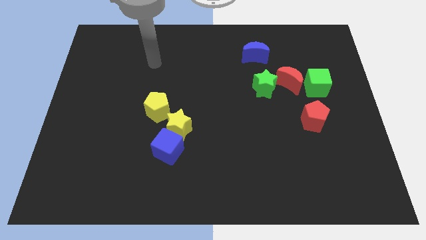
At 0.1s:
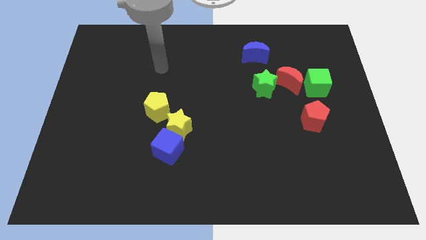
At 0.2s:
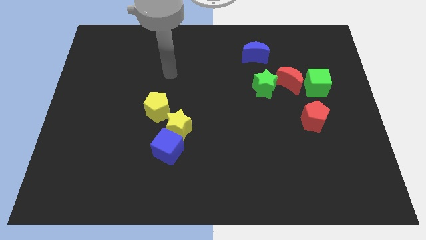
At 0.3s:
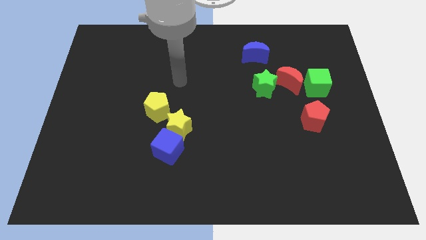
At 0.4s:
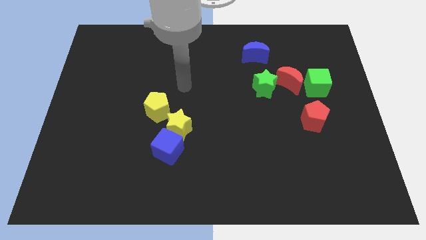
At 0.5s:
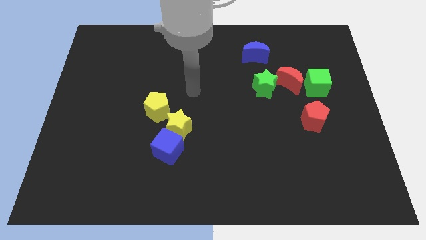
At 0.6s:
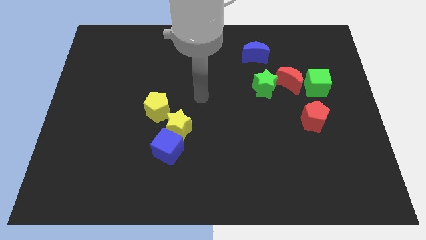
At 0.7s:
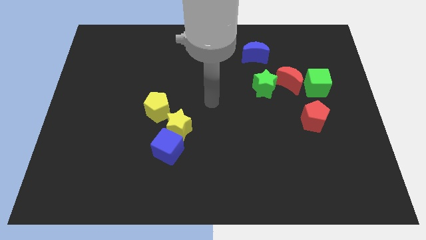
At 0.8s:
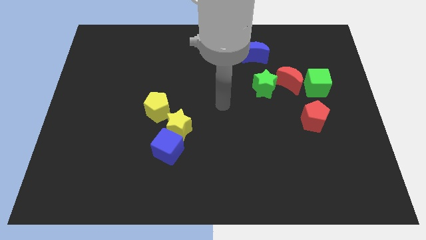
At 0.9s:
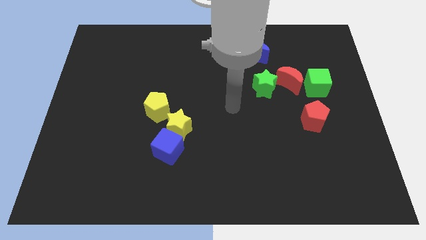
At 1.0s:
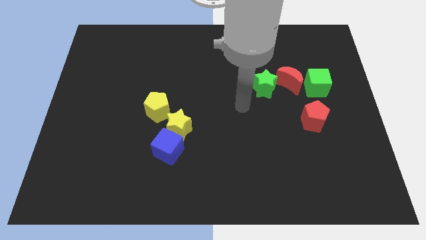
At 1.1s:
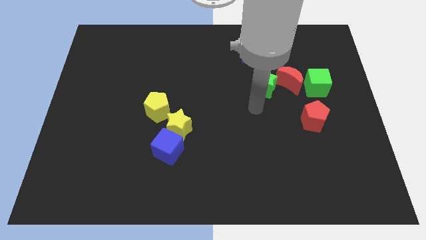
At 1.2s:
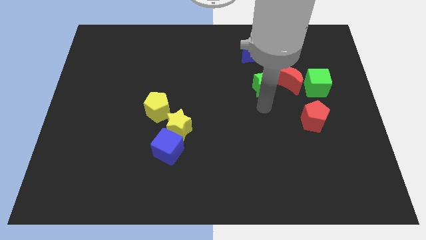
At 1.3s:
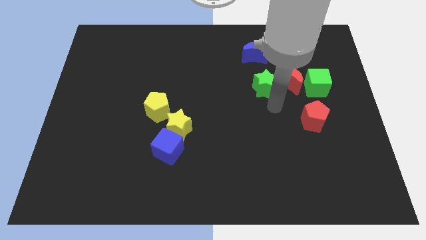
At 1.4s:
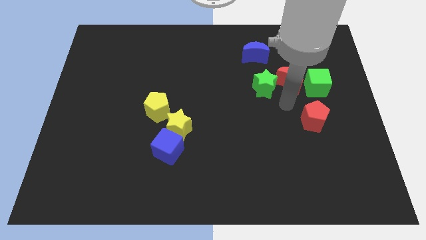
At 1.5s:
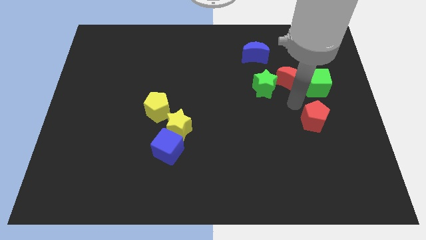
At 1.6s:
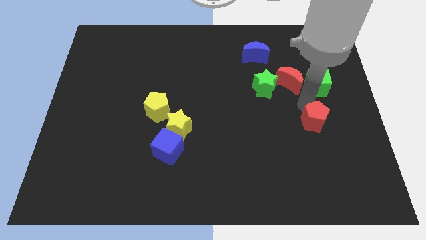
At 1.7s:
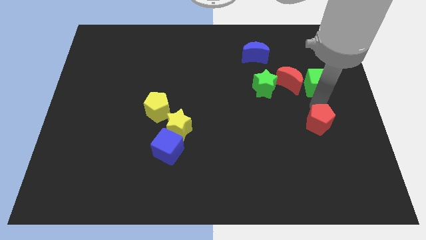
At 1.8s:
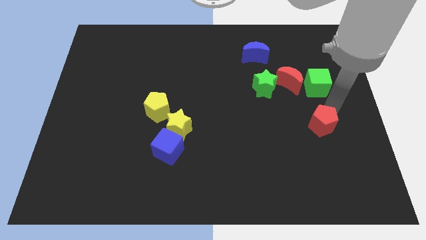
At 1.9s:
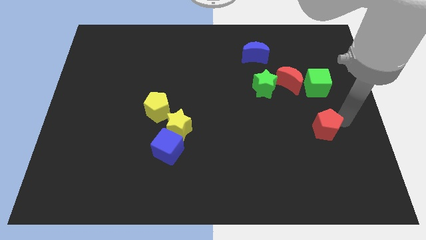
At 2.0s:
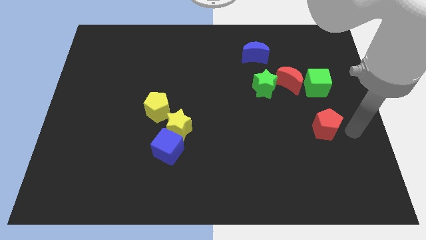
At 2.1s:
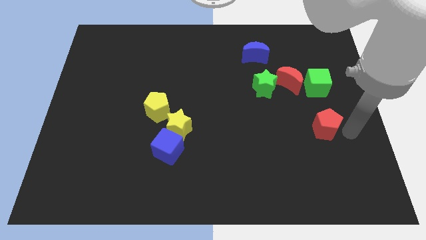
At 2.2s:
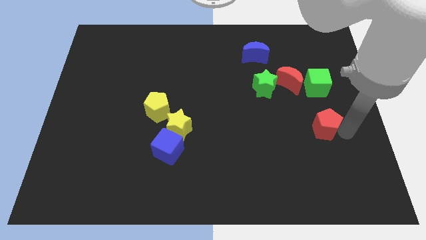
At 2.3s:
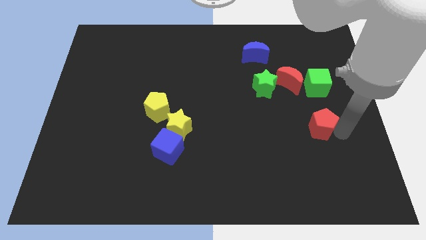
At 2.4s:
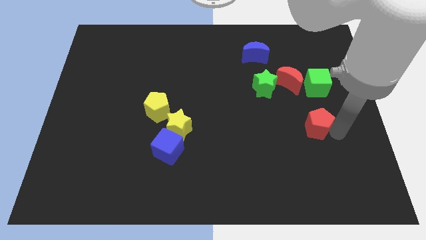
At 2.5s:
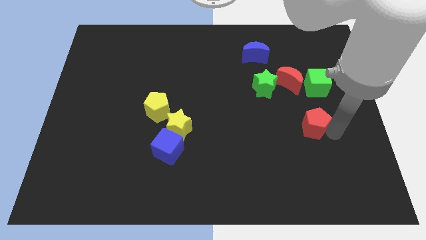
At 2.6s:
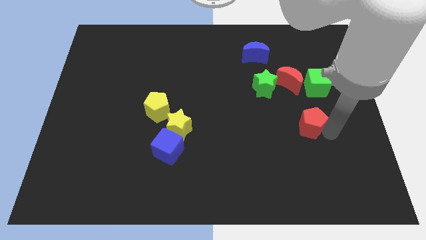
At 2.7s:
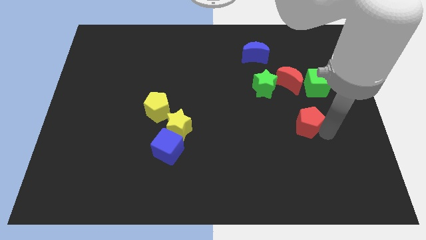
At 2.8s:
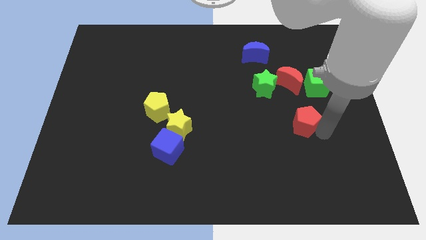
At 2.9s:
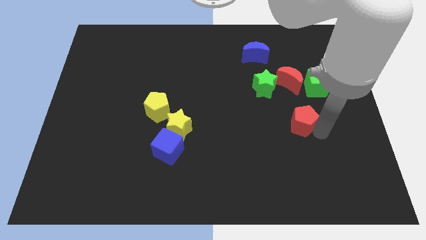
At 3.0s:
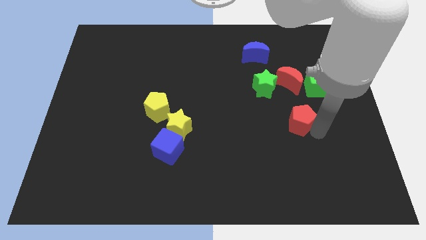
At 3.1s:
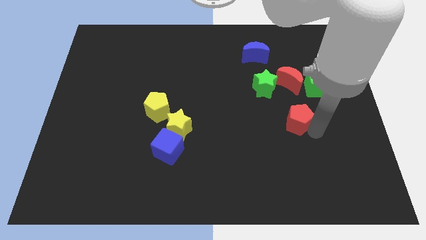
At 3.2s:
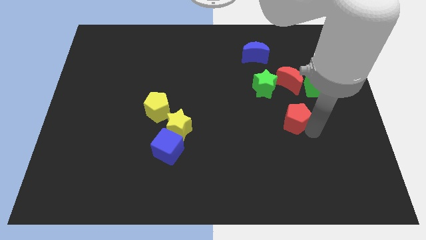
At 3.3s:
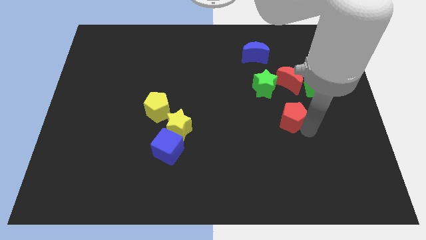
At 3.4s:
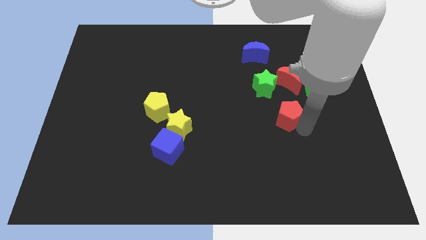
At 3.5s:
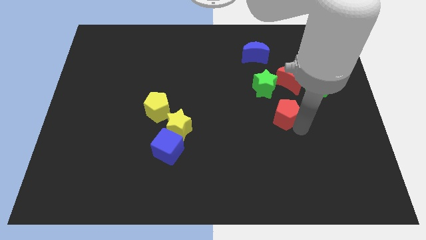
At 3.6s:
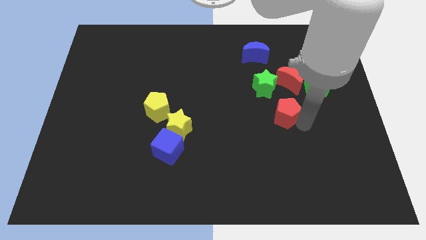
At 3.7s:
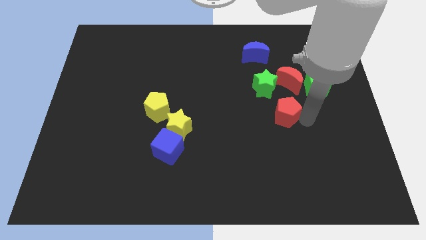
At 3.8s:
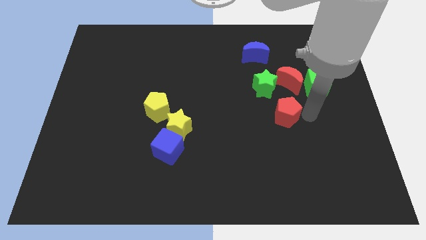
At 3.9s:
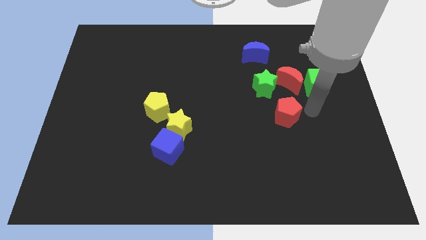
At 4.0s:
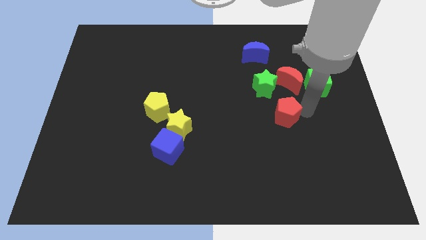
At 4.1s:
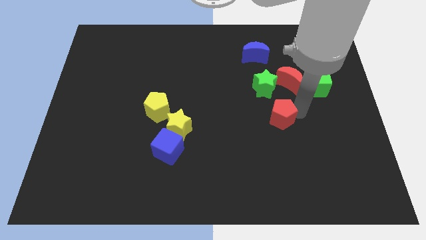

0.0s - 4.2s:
slightly push the red pentagon to the left

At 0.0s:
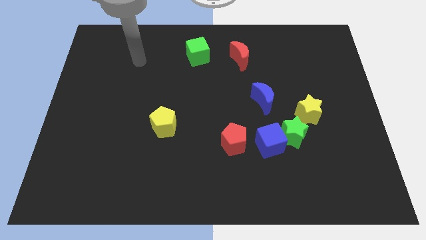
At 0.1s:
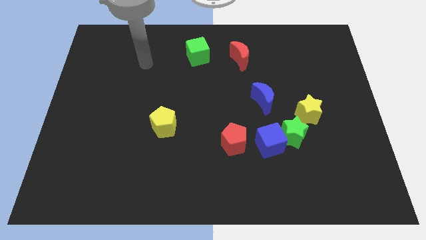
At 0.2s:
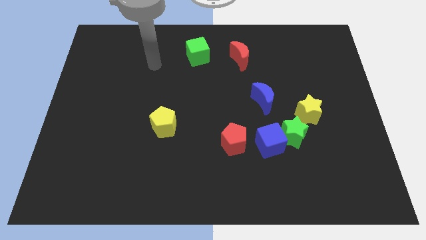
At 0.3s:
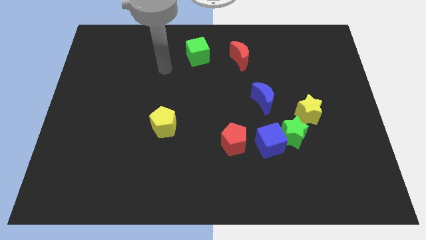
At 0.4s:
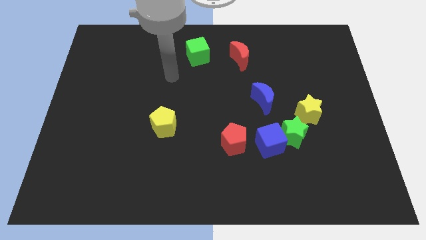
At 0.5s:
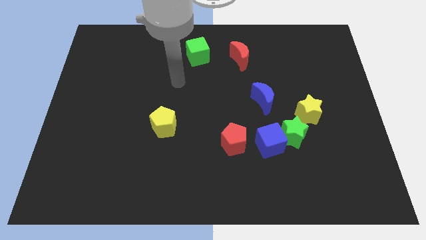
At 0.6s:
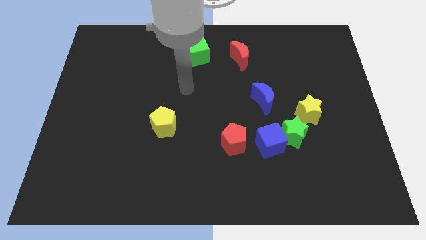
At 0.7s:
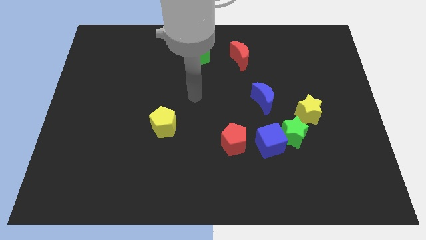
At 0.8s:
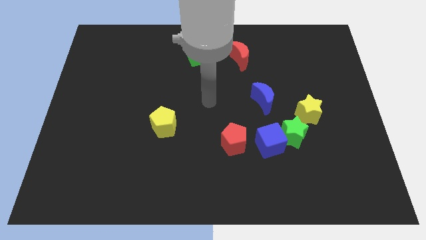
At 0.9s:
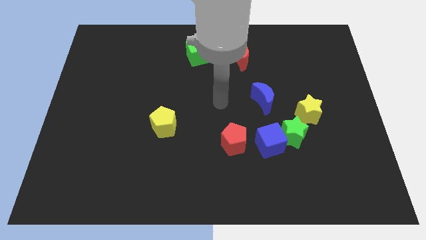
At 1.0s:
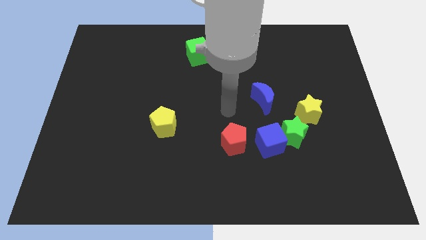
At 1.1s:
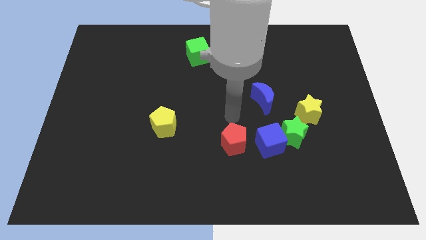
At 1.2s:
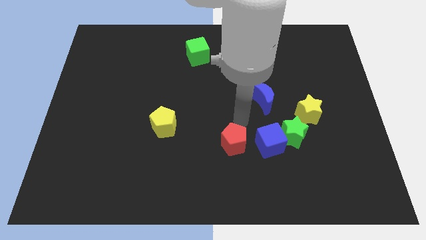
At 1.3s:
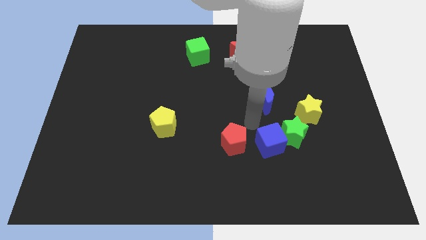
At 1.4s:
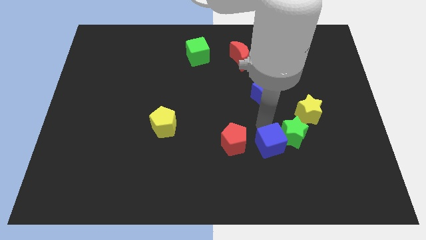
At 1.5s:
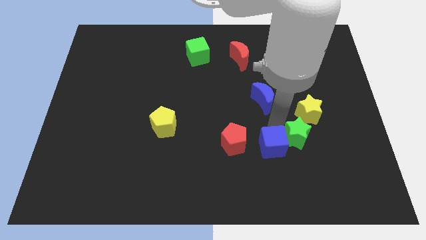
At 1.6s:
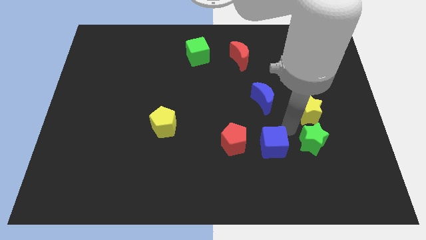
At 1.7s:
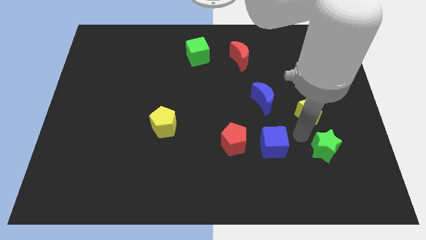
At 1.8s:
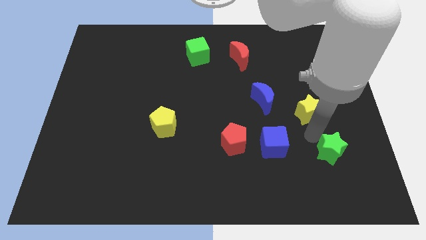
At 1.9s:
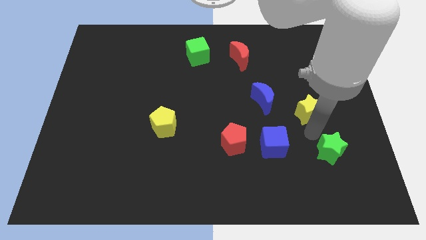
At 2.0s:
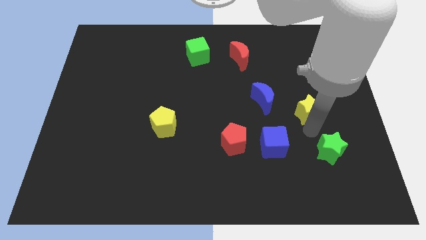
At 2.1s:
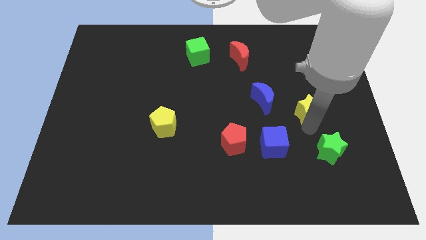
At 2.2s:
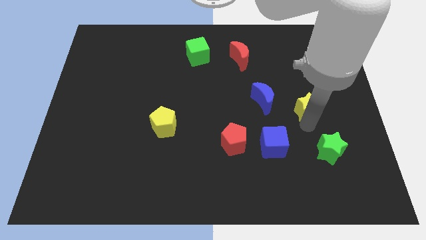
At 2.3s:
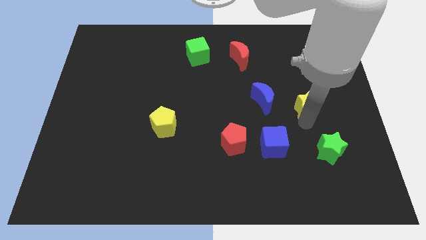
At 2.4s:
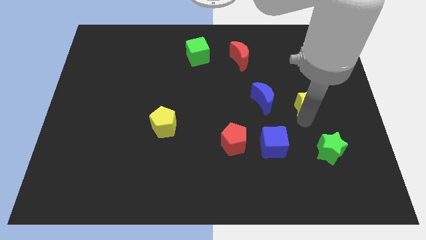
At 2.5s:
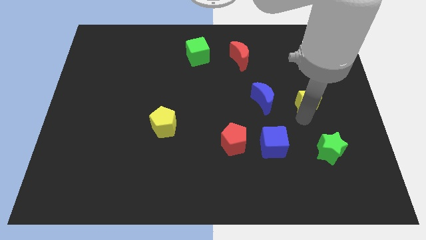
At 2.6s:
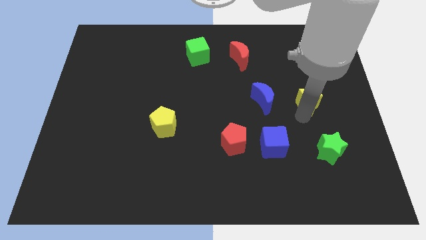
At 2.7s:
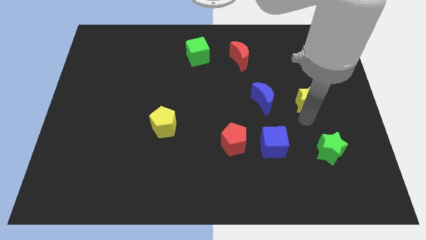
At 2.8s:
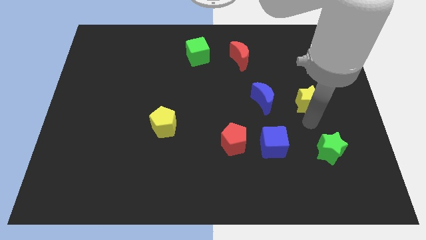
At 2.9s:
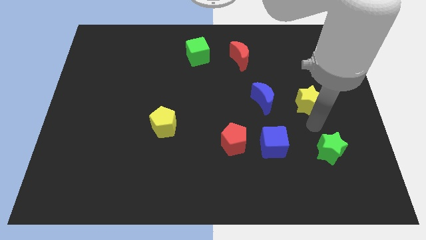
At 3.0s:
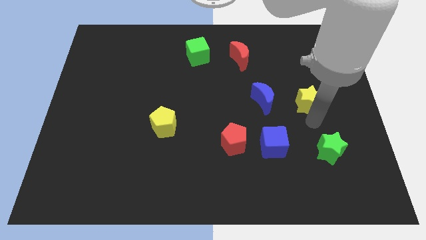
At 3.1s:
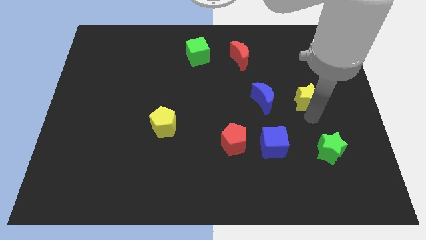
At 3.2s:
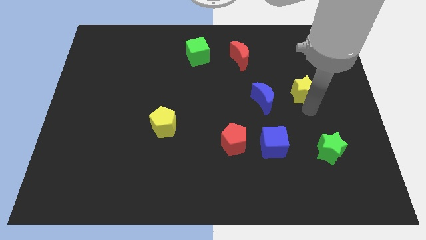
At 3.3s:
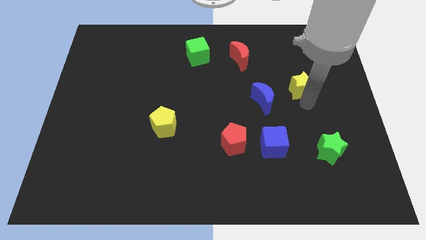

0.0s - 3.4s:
slightly move the yellow star up

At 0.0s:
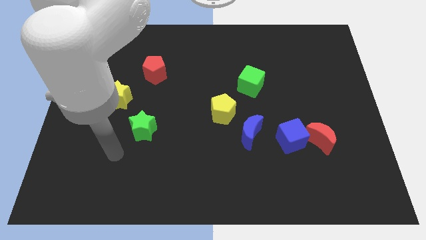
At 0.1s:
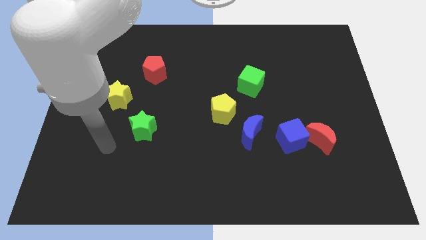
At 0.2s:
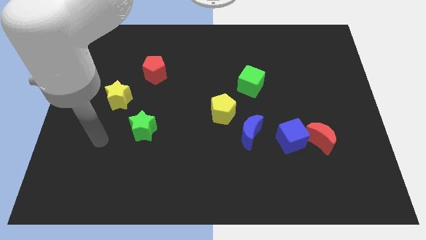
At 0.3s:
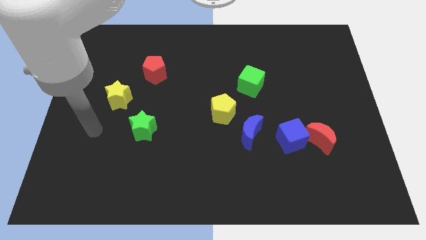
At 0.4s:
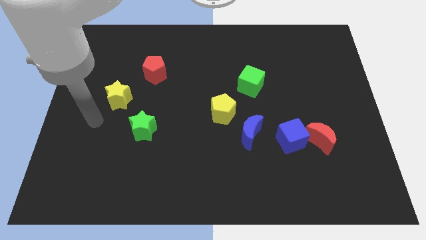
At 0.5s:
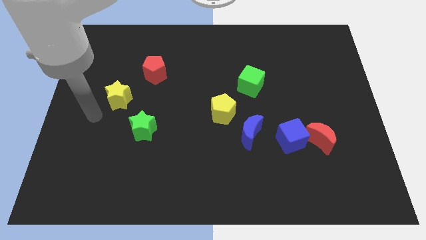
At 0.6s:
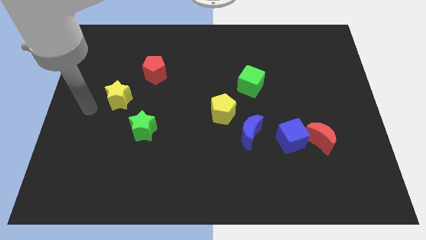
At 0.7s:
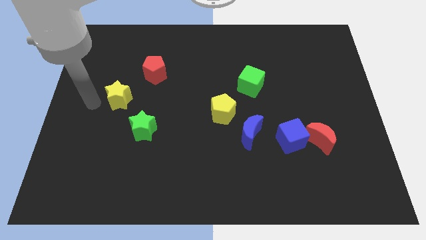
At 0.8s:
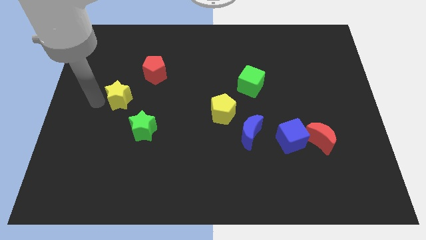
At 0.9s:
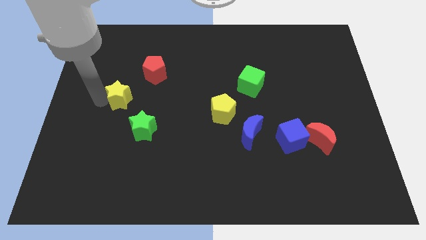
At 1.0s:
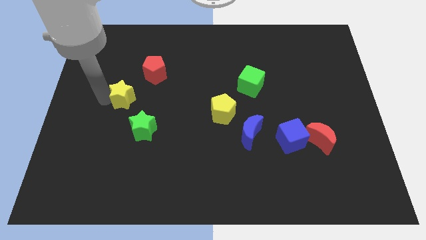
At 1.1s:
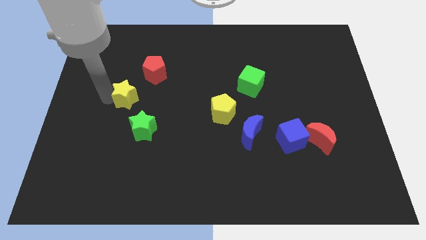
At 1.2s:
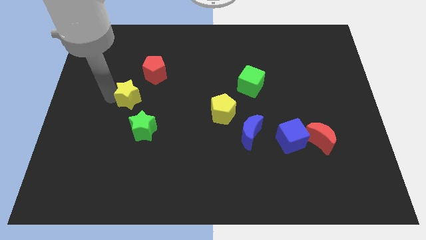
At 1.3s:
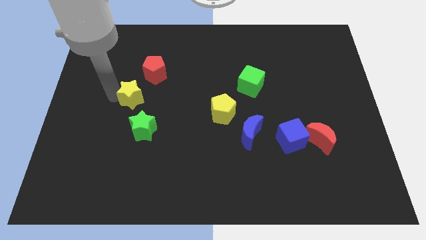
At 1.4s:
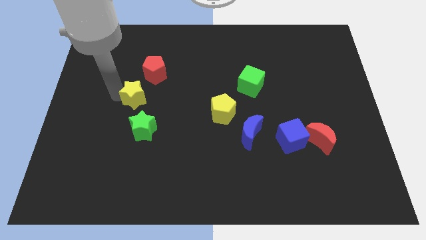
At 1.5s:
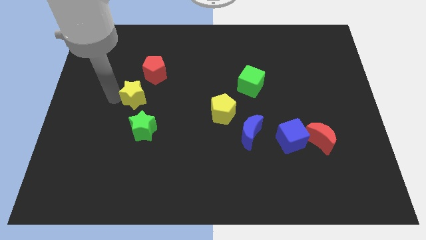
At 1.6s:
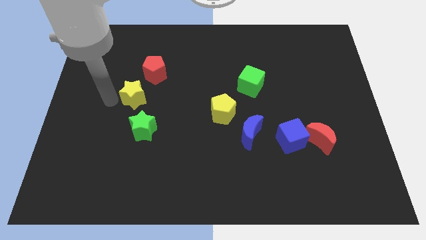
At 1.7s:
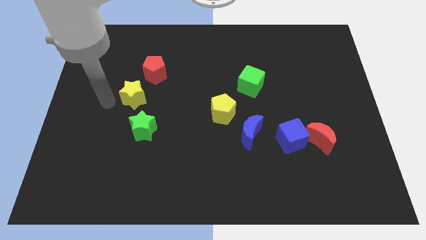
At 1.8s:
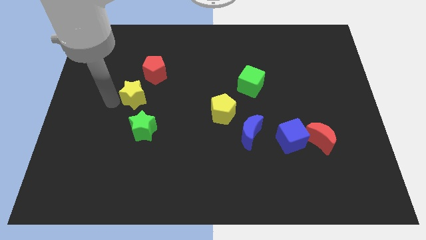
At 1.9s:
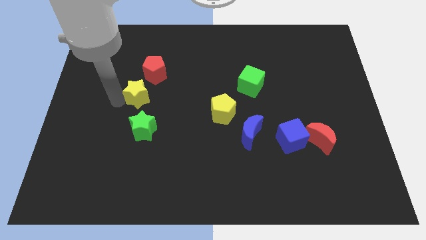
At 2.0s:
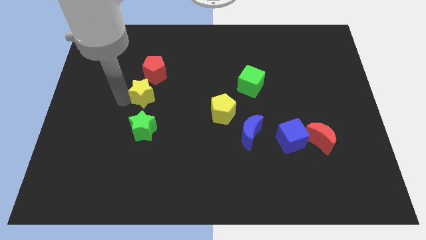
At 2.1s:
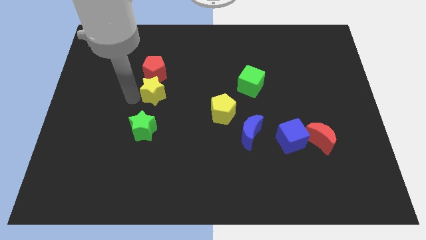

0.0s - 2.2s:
slide the yellow star somewhat to the right
